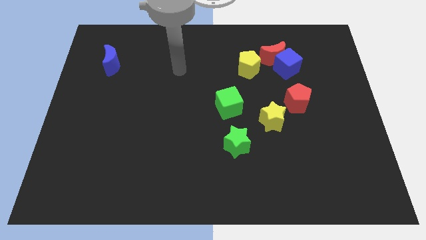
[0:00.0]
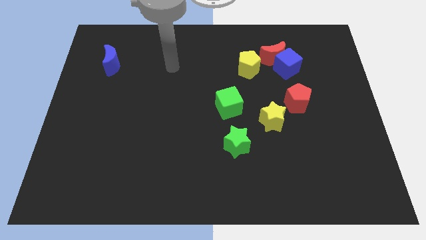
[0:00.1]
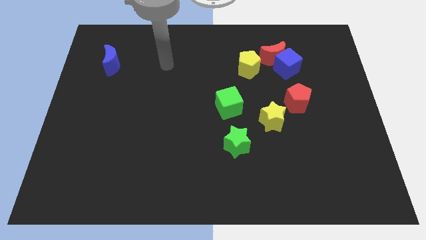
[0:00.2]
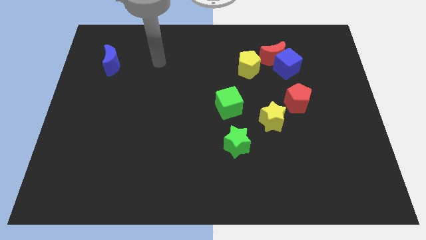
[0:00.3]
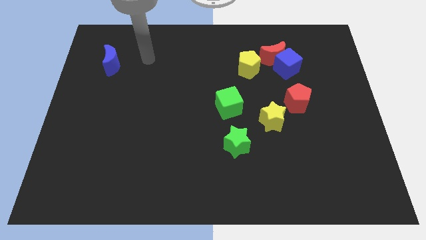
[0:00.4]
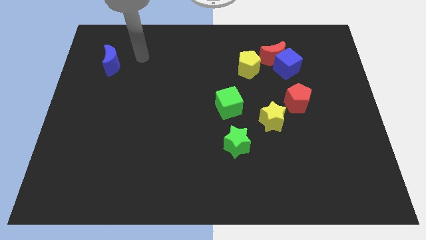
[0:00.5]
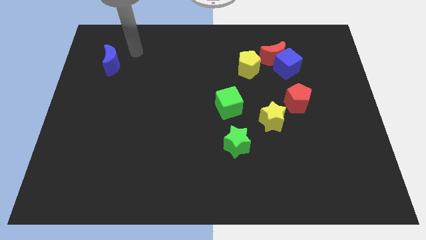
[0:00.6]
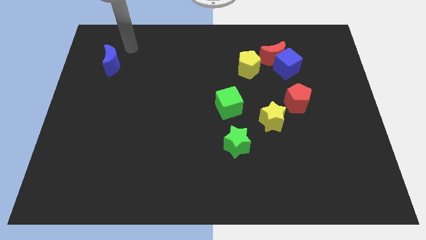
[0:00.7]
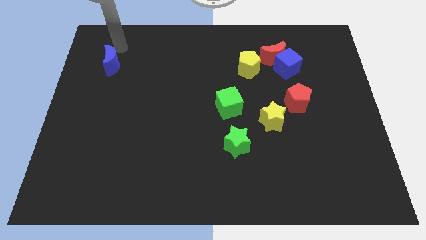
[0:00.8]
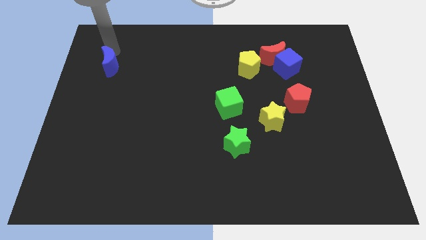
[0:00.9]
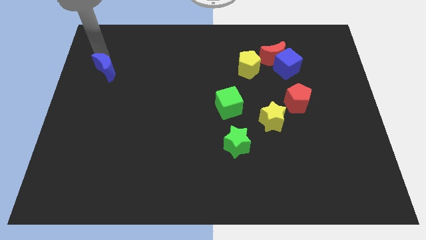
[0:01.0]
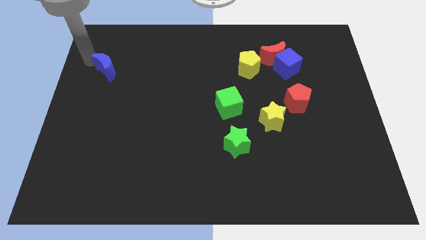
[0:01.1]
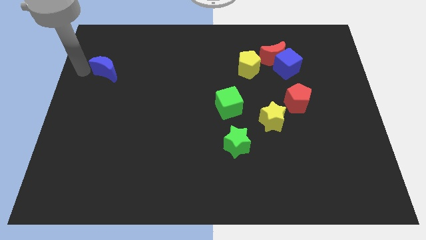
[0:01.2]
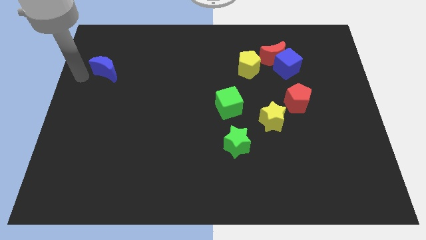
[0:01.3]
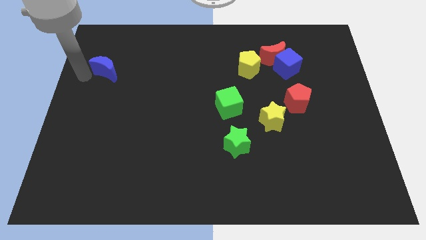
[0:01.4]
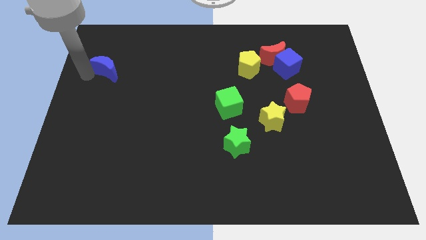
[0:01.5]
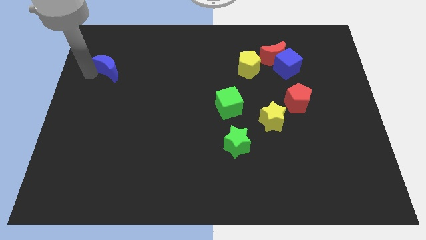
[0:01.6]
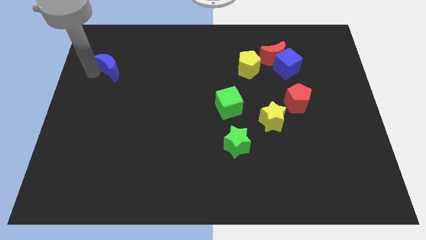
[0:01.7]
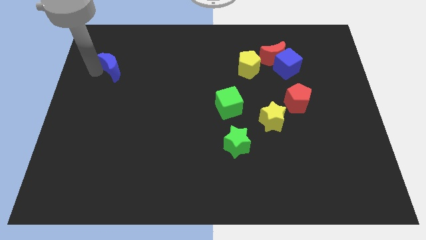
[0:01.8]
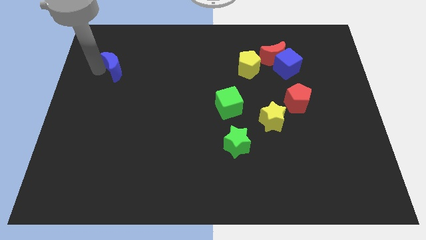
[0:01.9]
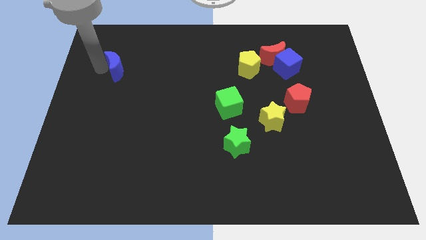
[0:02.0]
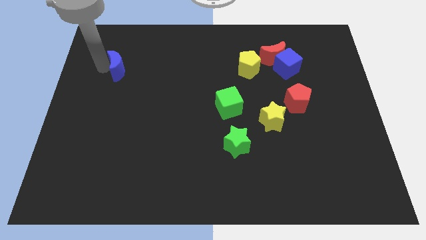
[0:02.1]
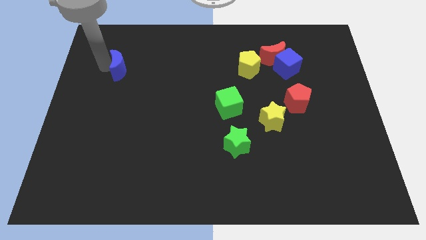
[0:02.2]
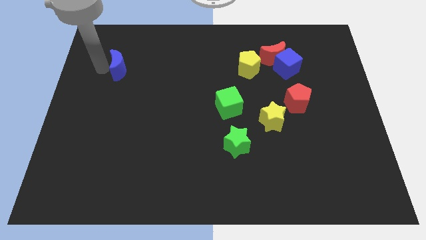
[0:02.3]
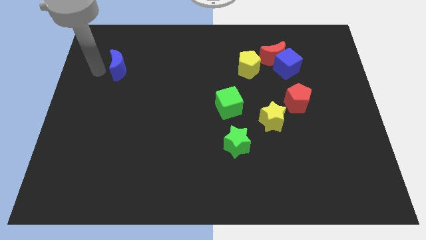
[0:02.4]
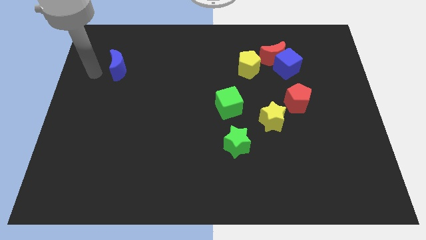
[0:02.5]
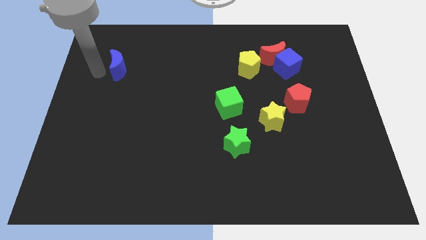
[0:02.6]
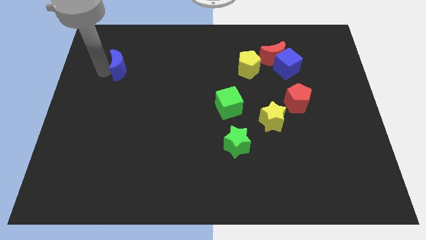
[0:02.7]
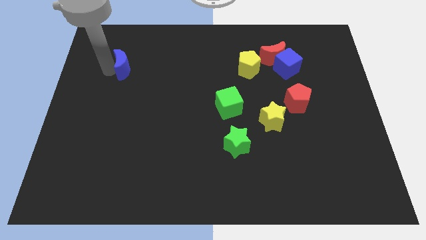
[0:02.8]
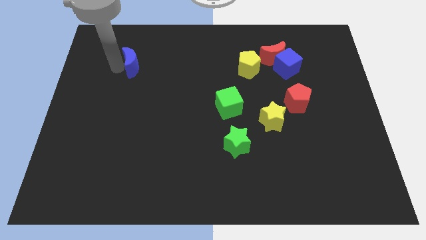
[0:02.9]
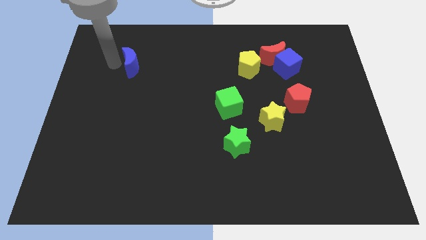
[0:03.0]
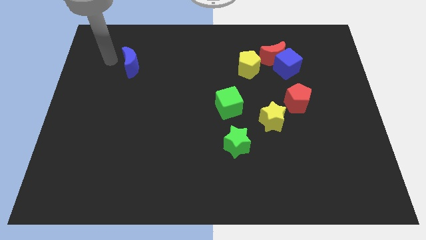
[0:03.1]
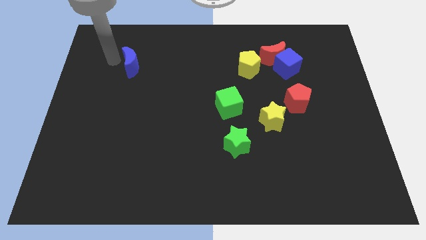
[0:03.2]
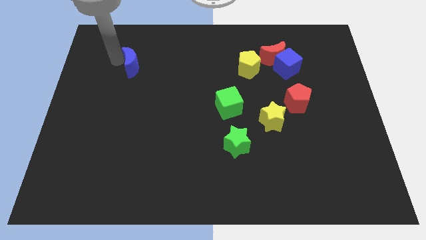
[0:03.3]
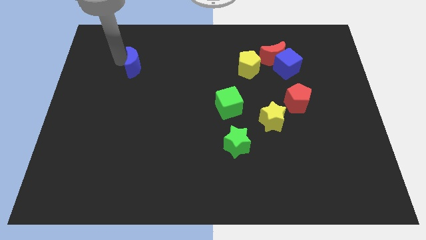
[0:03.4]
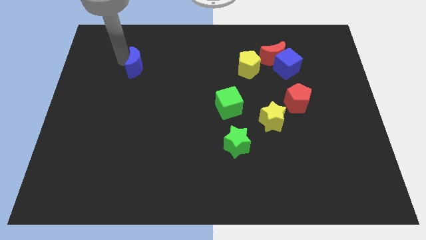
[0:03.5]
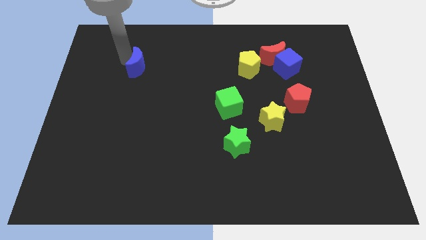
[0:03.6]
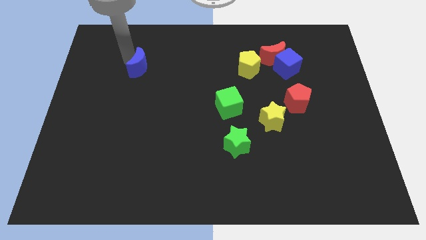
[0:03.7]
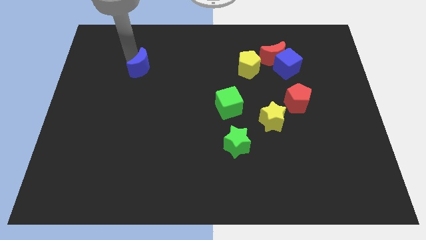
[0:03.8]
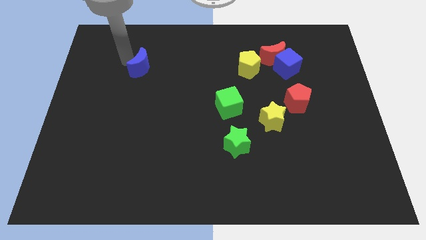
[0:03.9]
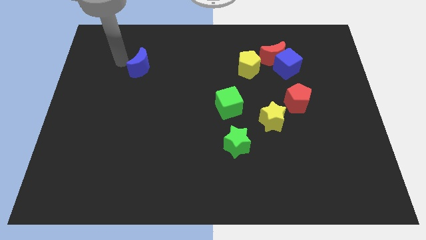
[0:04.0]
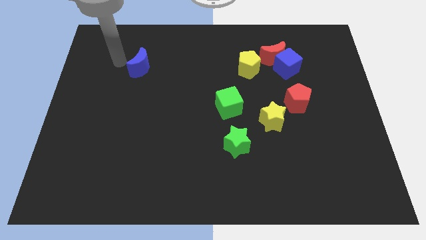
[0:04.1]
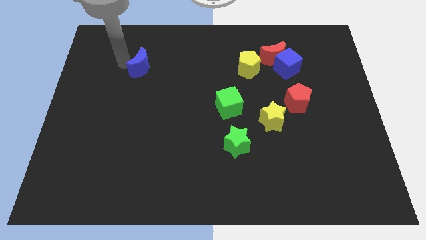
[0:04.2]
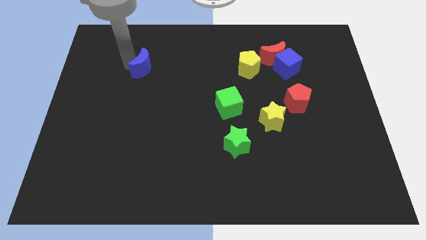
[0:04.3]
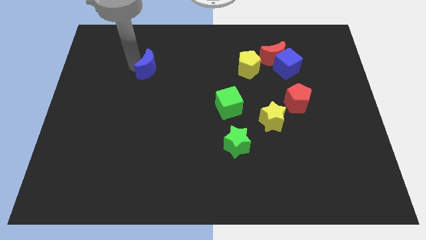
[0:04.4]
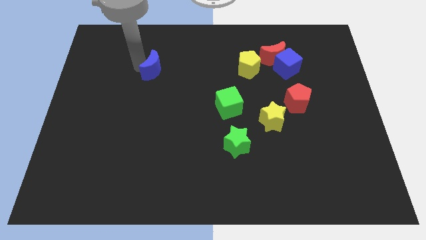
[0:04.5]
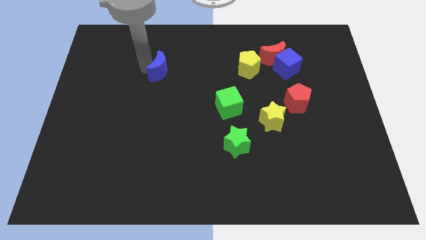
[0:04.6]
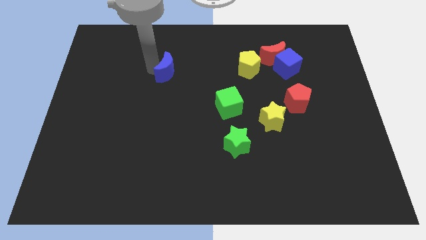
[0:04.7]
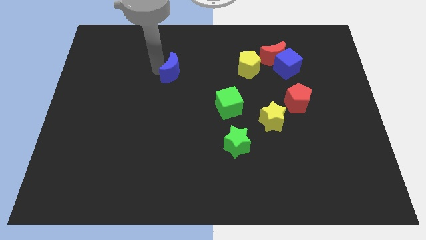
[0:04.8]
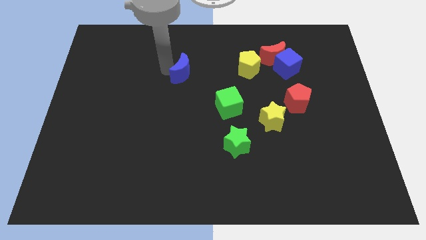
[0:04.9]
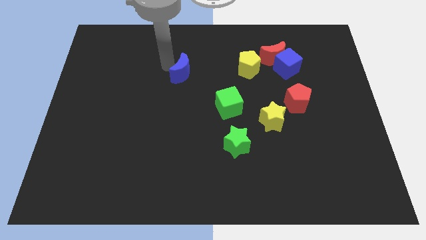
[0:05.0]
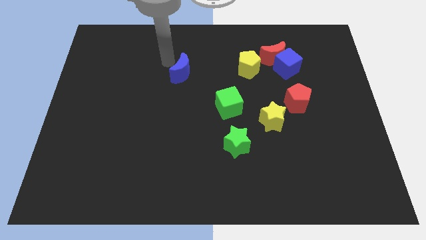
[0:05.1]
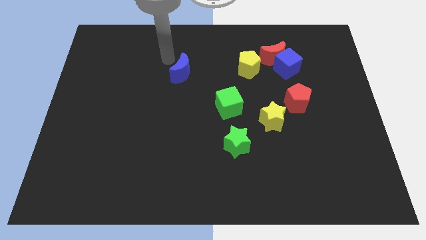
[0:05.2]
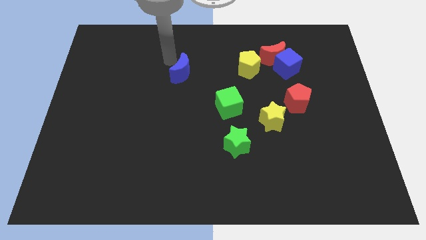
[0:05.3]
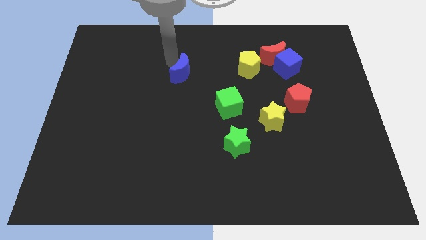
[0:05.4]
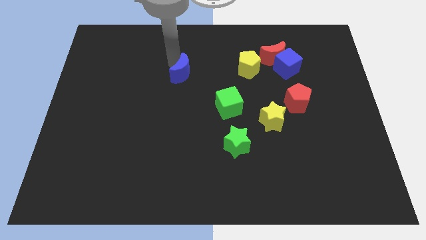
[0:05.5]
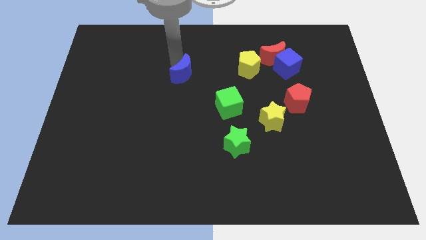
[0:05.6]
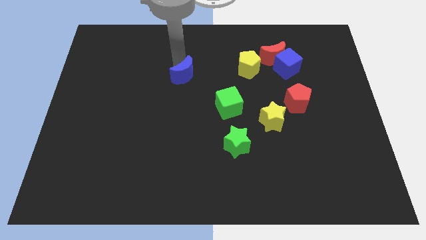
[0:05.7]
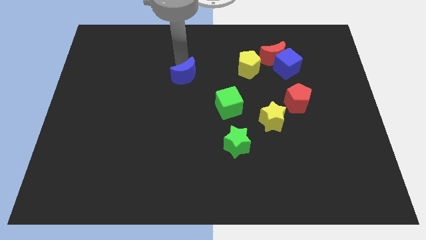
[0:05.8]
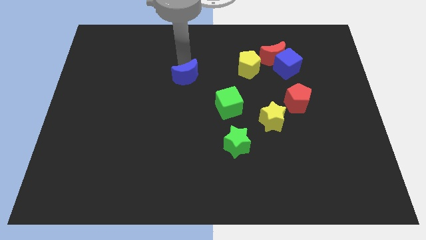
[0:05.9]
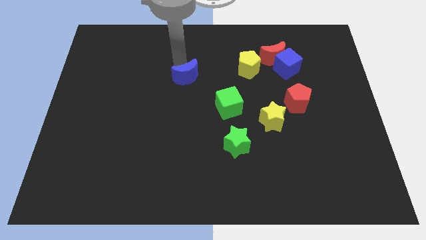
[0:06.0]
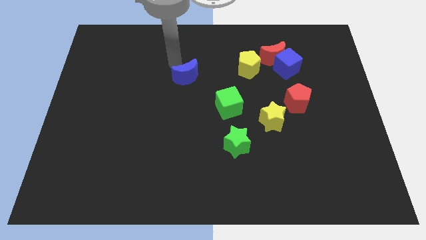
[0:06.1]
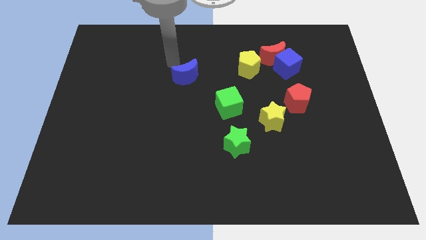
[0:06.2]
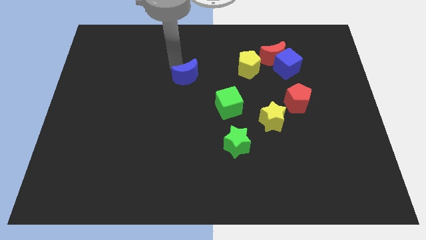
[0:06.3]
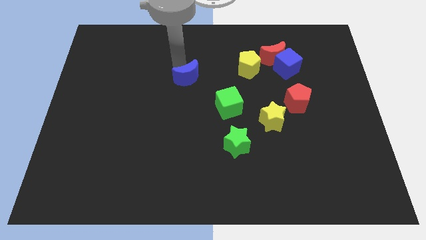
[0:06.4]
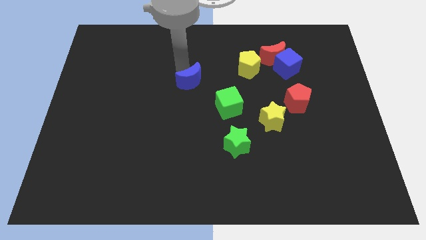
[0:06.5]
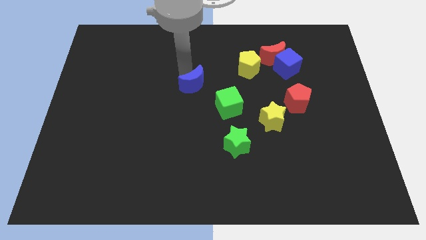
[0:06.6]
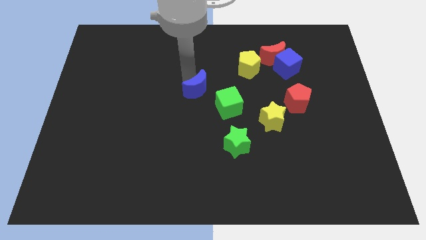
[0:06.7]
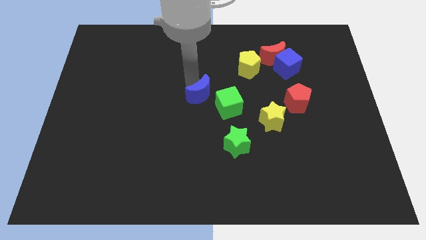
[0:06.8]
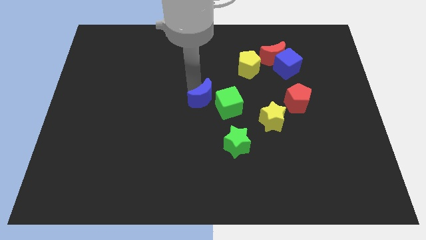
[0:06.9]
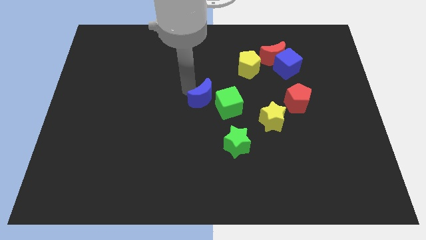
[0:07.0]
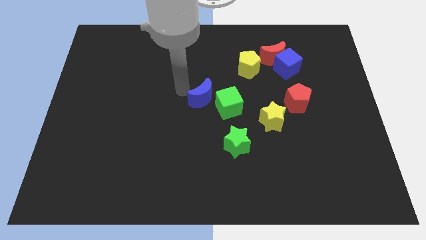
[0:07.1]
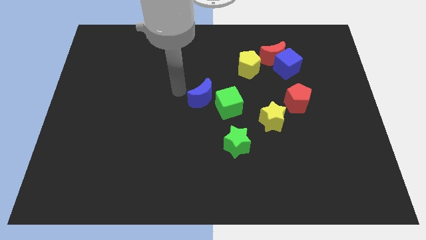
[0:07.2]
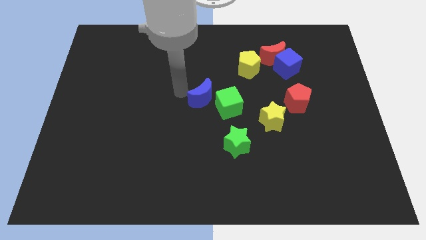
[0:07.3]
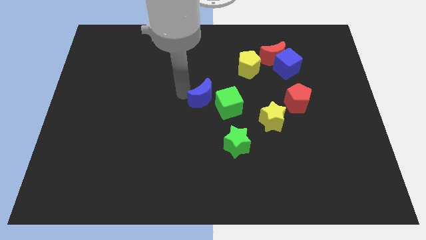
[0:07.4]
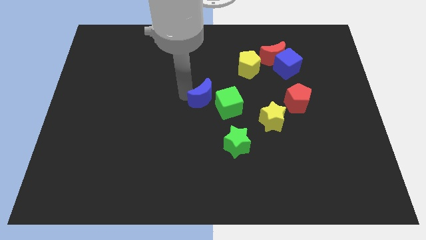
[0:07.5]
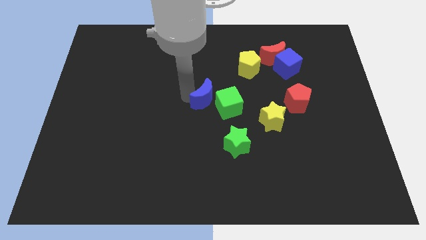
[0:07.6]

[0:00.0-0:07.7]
put the blue moon next to the green cube

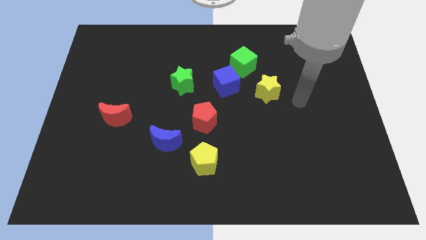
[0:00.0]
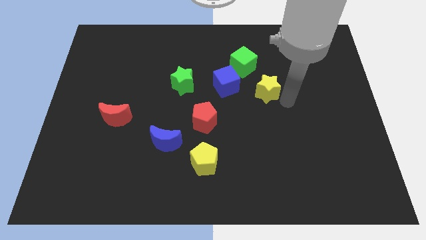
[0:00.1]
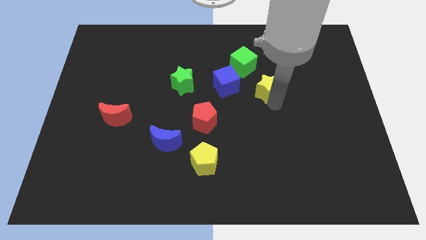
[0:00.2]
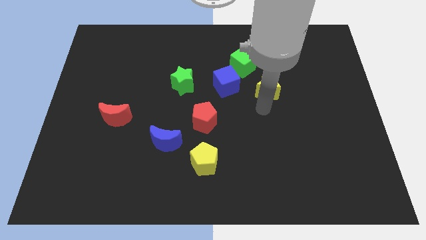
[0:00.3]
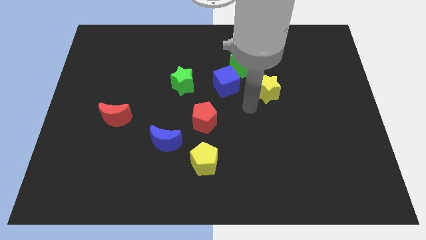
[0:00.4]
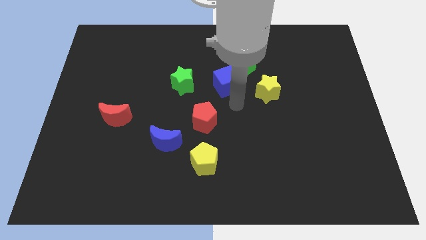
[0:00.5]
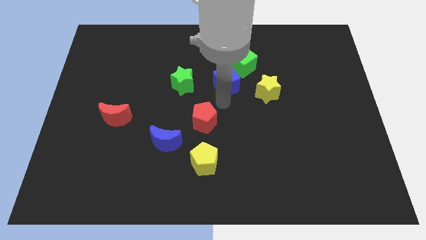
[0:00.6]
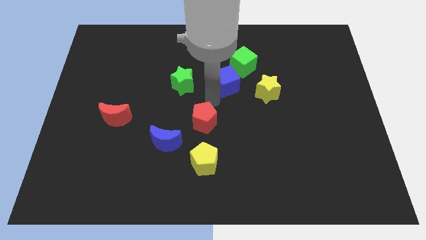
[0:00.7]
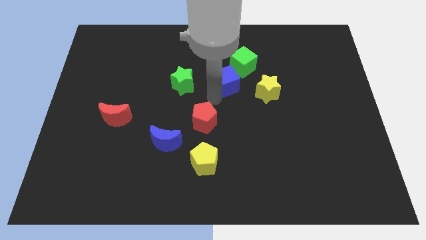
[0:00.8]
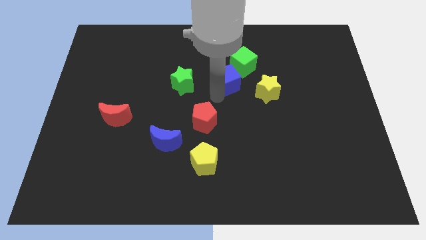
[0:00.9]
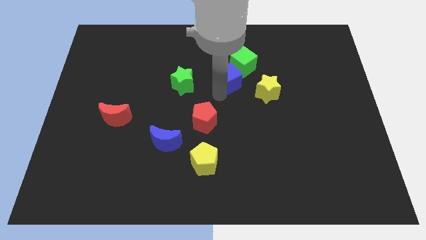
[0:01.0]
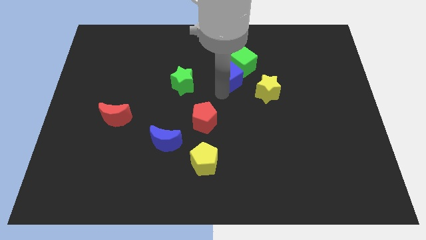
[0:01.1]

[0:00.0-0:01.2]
push the blue cube next to the green cube
